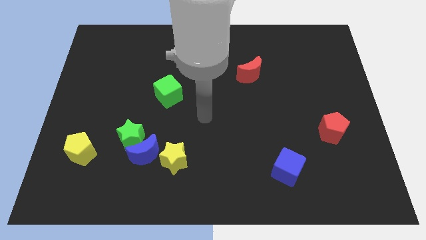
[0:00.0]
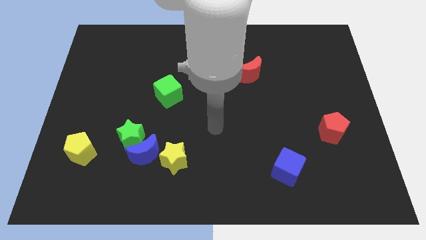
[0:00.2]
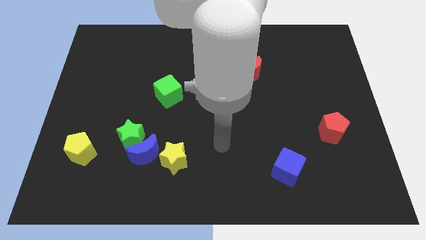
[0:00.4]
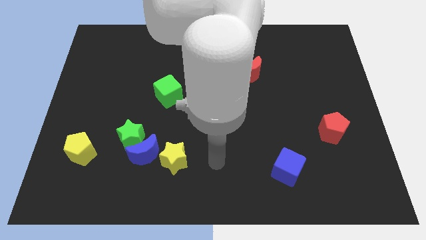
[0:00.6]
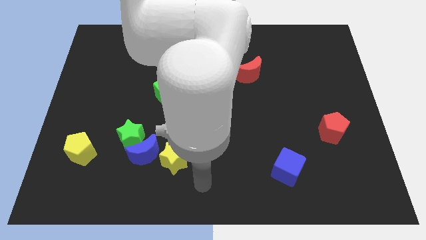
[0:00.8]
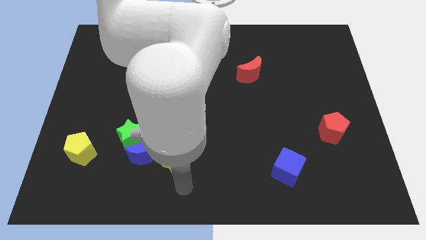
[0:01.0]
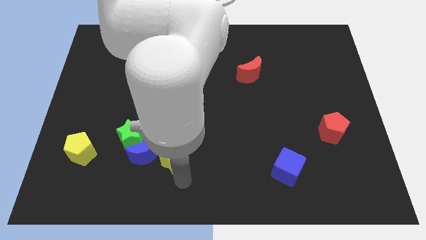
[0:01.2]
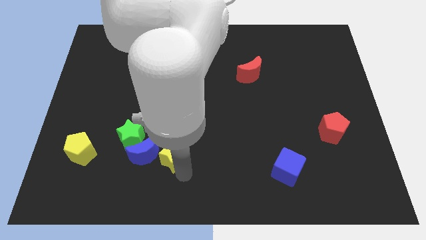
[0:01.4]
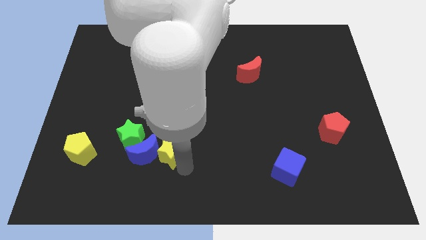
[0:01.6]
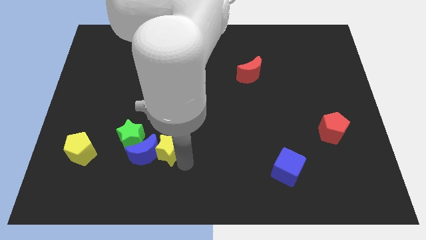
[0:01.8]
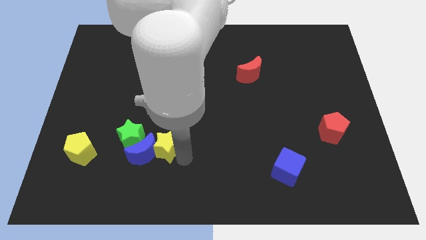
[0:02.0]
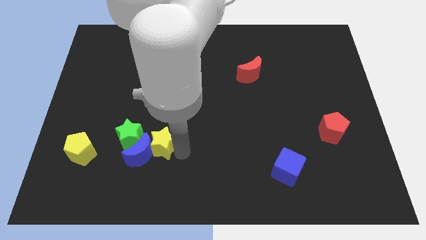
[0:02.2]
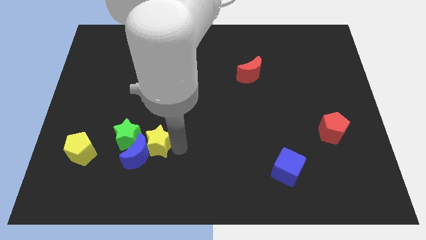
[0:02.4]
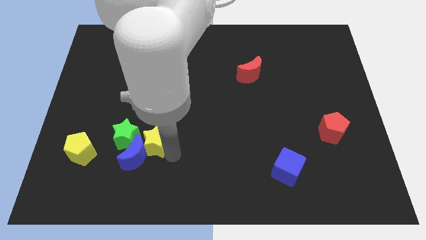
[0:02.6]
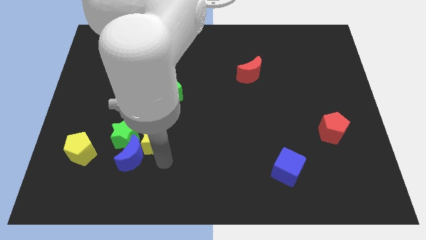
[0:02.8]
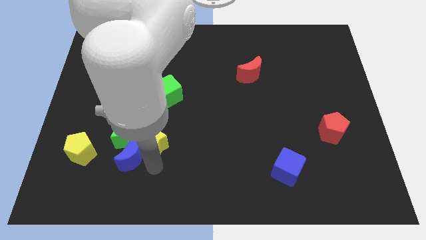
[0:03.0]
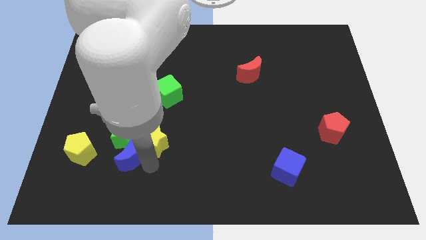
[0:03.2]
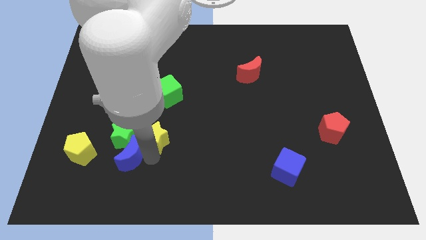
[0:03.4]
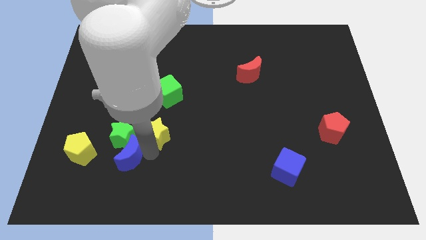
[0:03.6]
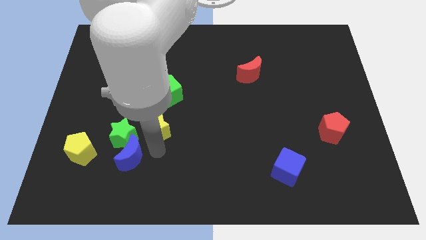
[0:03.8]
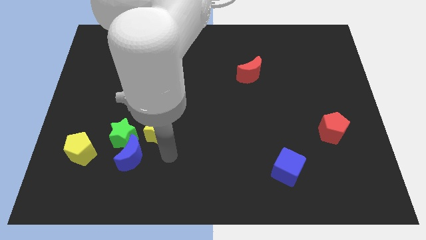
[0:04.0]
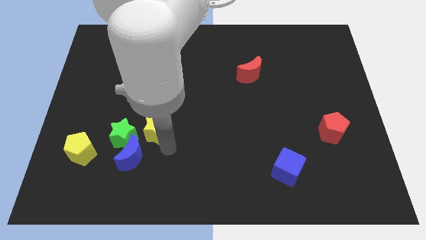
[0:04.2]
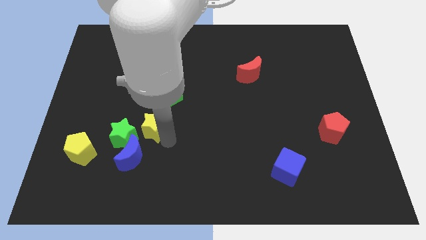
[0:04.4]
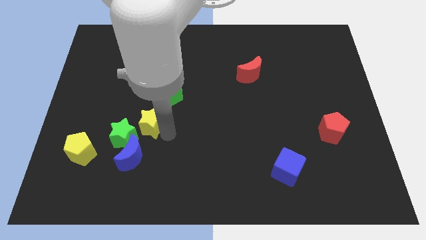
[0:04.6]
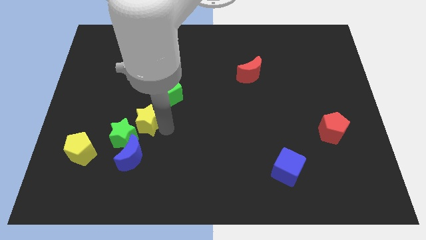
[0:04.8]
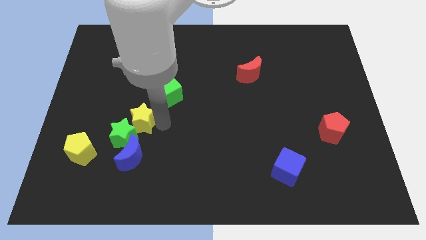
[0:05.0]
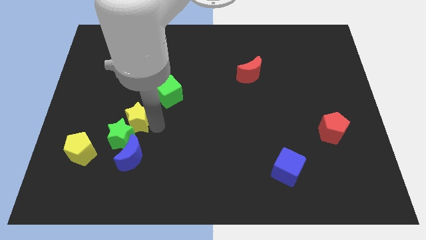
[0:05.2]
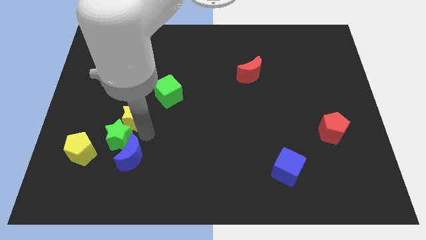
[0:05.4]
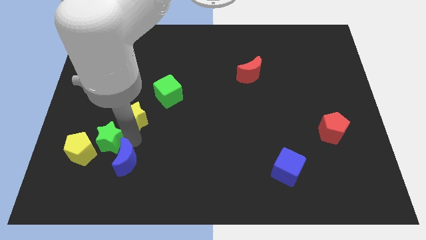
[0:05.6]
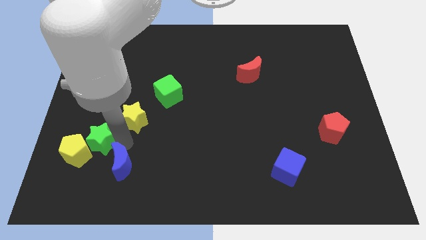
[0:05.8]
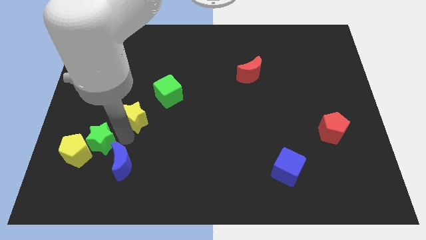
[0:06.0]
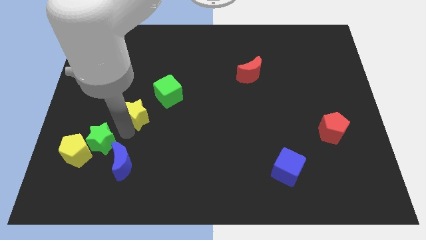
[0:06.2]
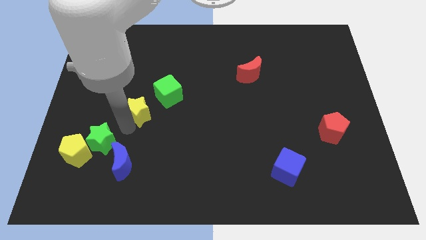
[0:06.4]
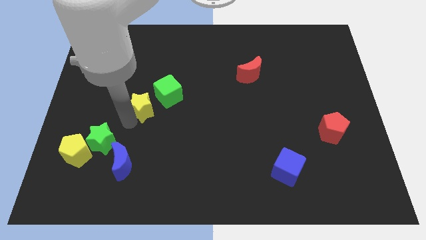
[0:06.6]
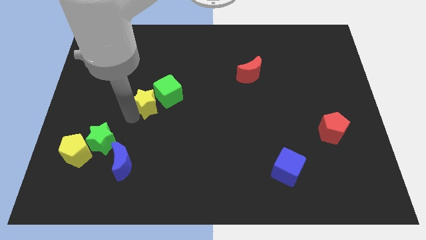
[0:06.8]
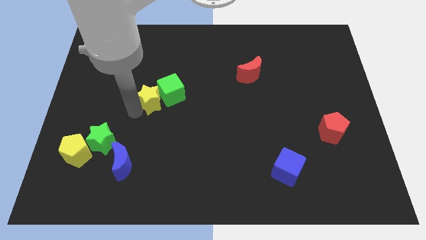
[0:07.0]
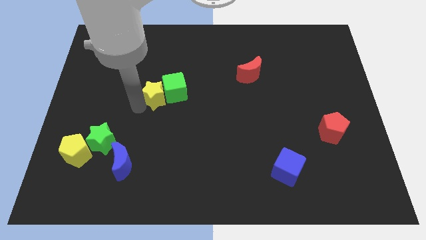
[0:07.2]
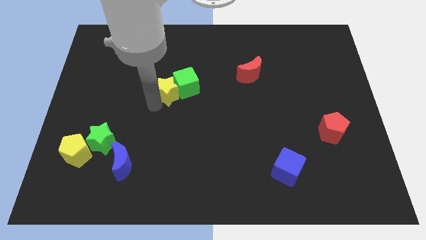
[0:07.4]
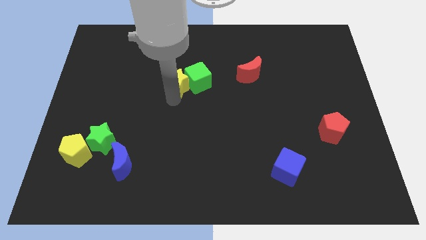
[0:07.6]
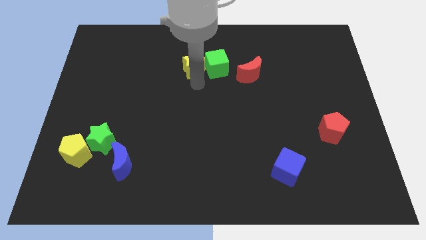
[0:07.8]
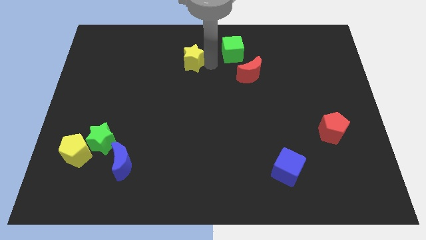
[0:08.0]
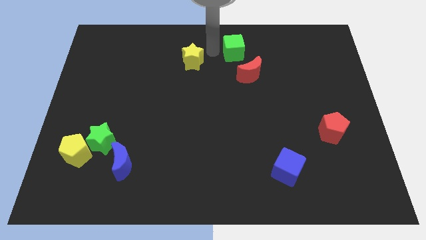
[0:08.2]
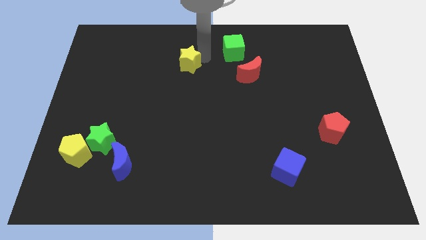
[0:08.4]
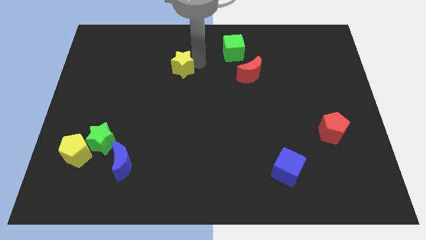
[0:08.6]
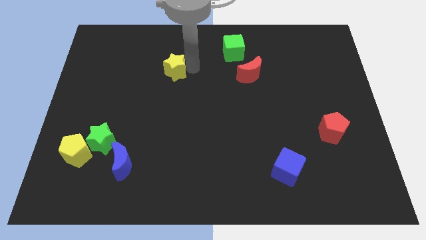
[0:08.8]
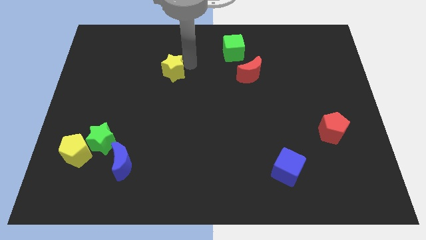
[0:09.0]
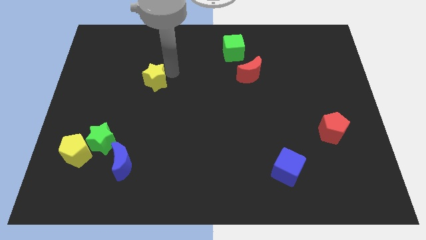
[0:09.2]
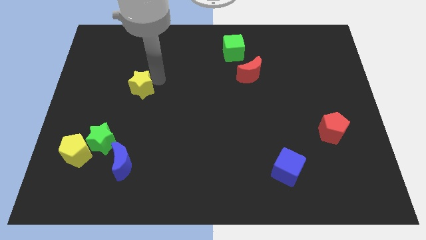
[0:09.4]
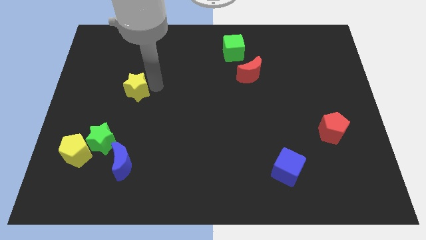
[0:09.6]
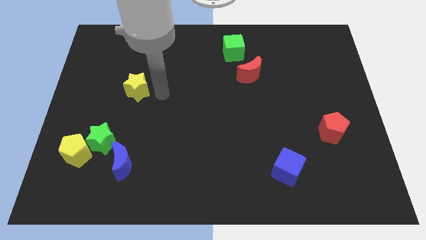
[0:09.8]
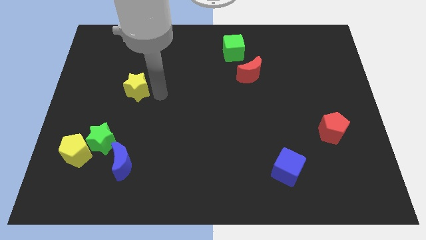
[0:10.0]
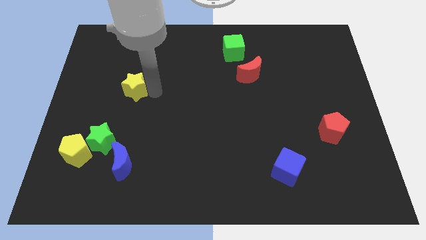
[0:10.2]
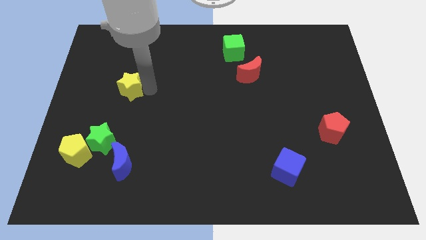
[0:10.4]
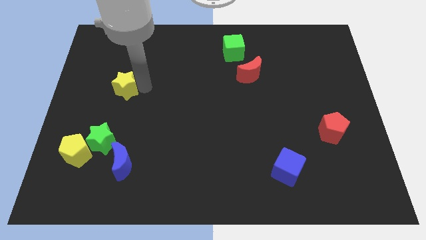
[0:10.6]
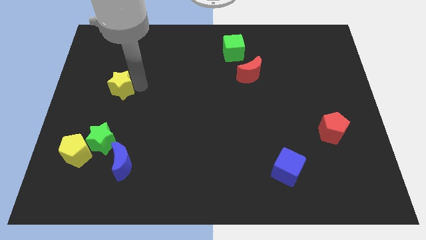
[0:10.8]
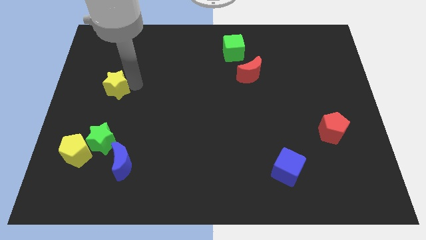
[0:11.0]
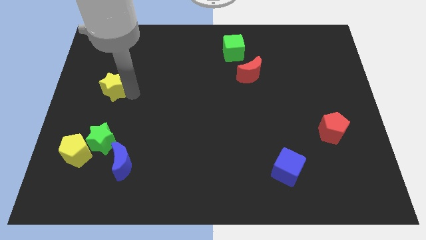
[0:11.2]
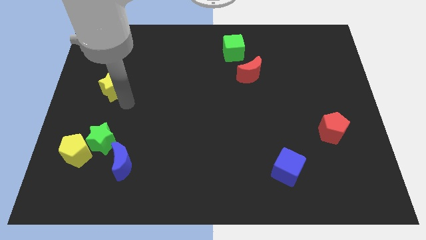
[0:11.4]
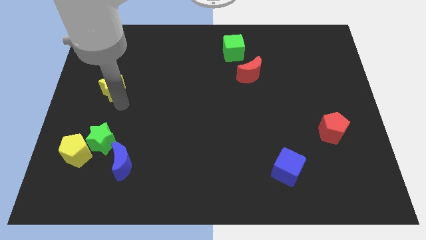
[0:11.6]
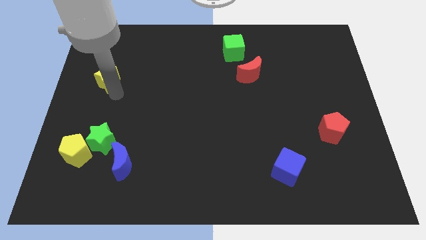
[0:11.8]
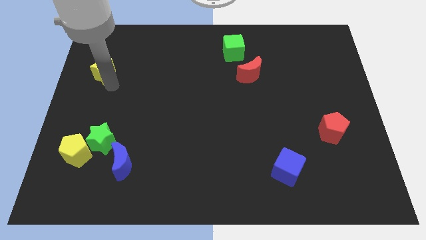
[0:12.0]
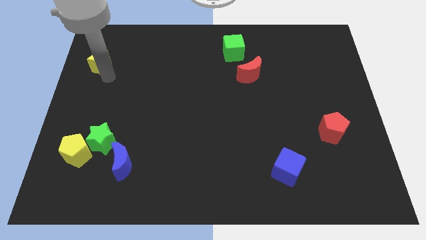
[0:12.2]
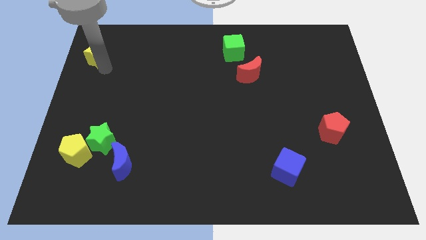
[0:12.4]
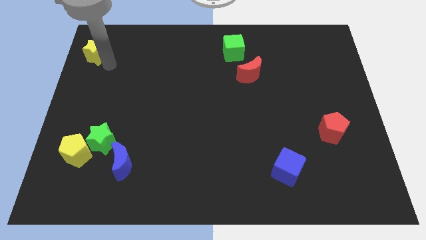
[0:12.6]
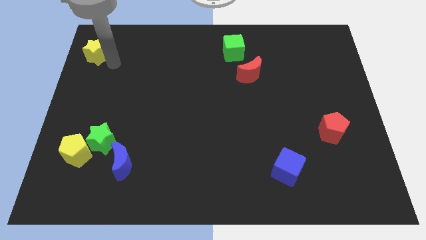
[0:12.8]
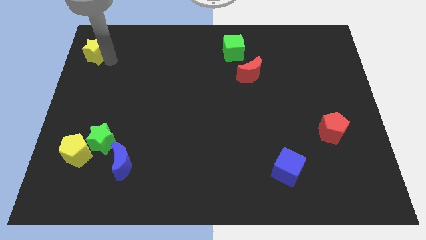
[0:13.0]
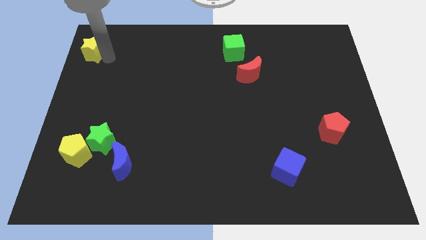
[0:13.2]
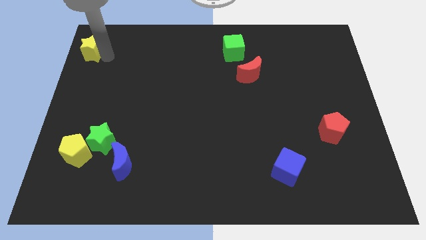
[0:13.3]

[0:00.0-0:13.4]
move the yellow star to the top left corner

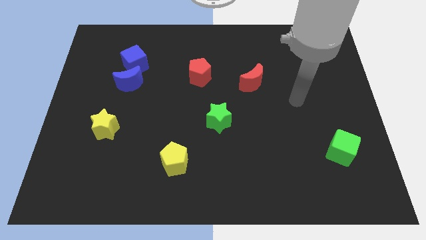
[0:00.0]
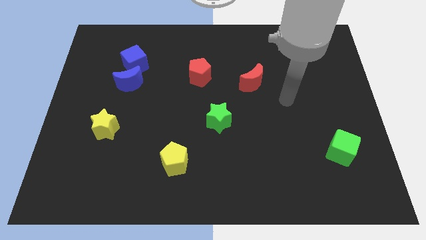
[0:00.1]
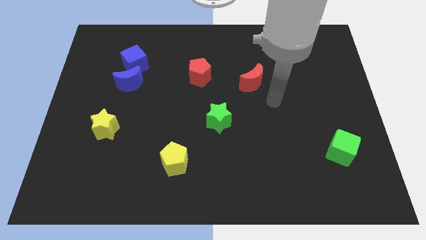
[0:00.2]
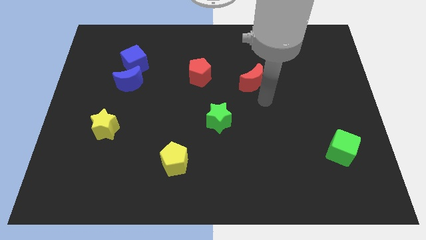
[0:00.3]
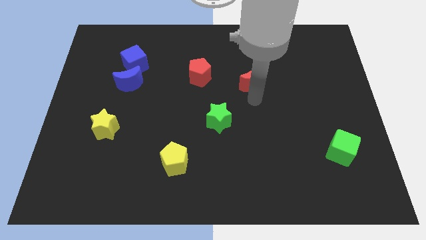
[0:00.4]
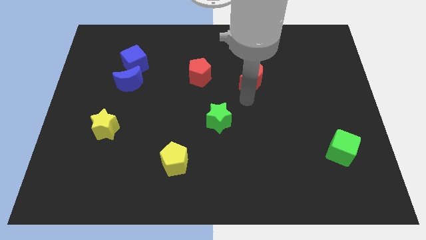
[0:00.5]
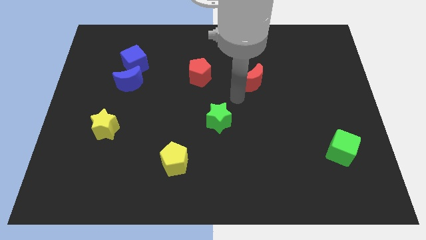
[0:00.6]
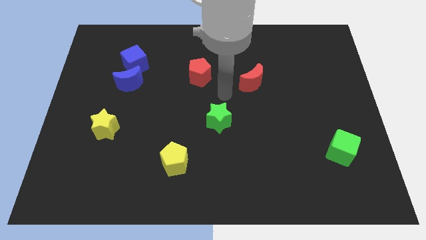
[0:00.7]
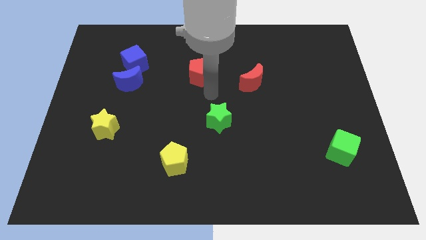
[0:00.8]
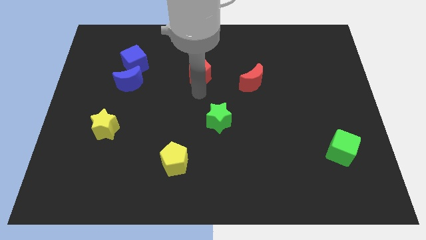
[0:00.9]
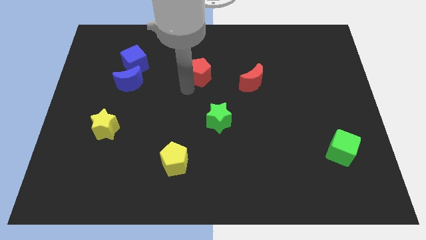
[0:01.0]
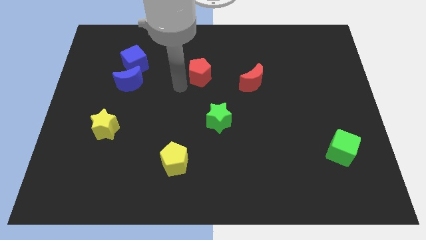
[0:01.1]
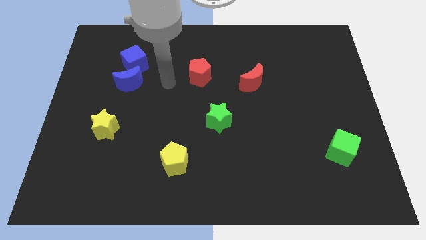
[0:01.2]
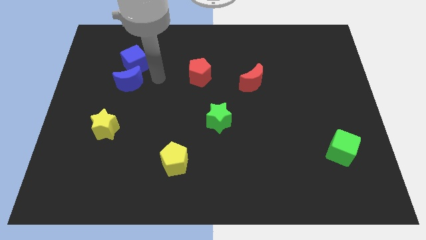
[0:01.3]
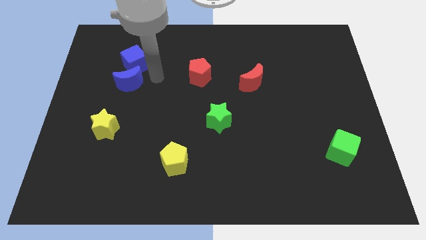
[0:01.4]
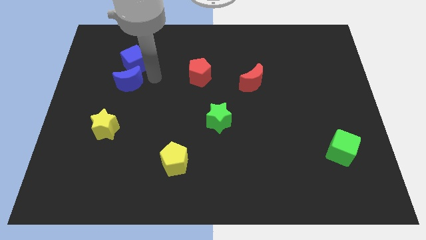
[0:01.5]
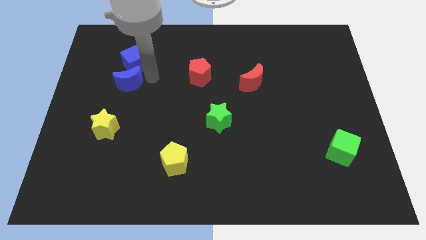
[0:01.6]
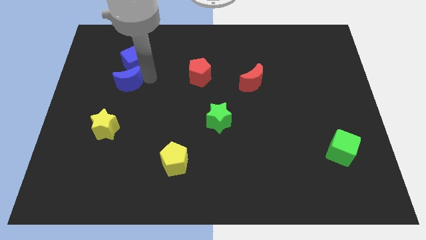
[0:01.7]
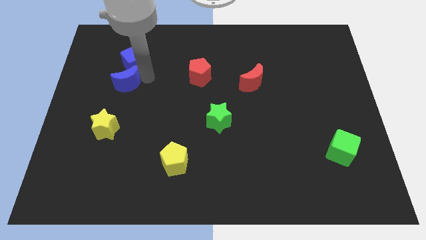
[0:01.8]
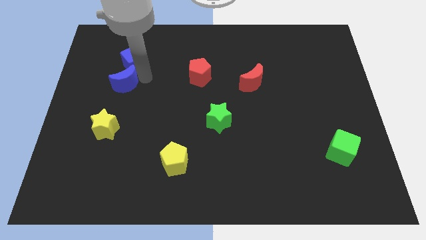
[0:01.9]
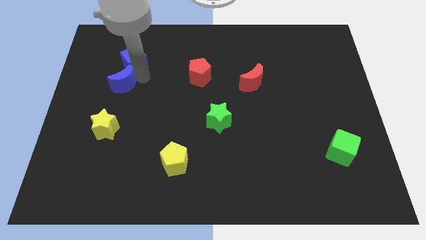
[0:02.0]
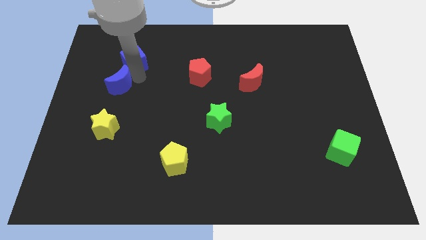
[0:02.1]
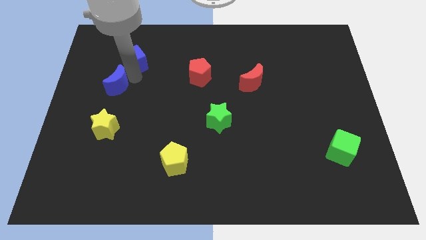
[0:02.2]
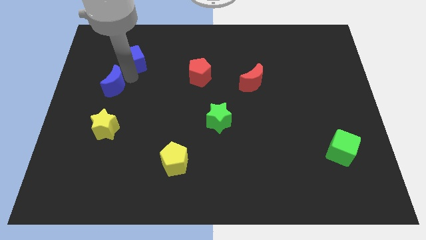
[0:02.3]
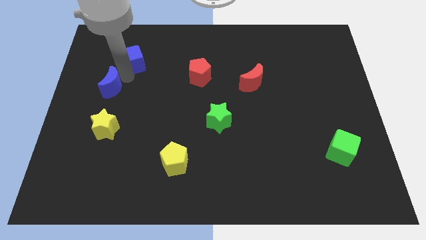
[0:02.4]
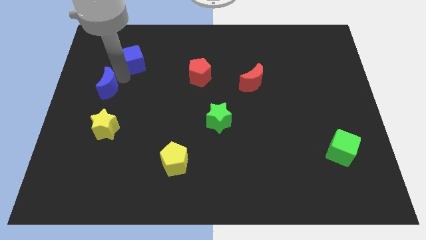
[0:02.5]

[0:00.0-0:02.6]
slide the blue moon to the left side of the board
